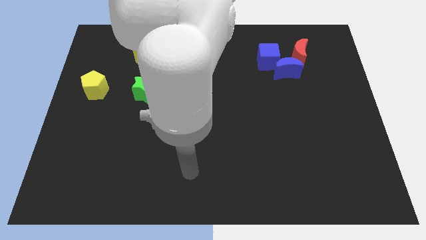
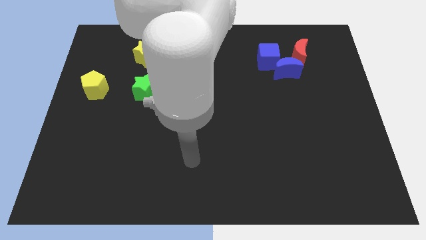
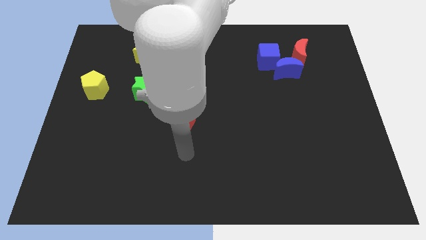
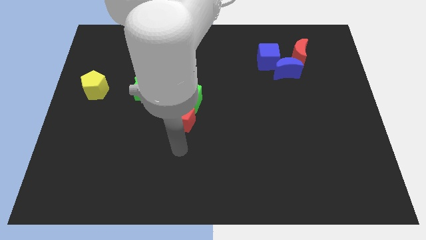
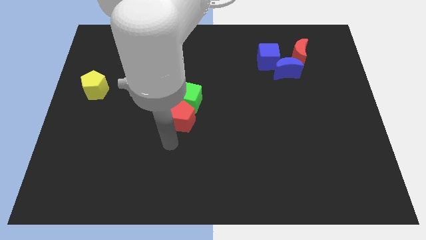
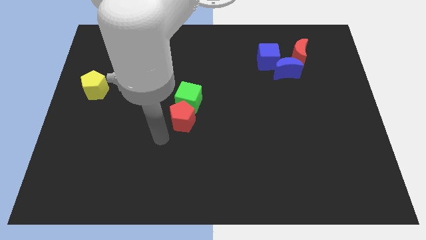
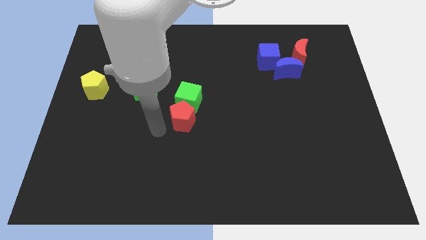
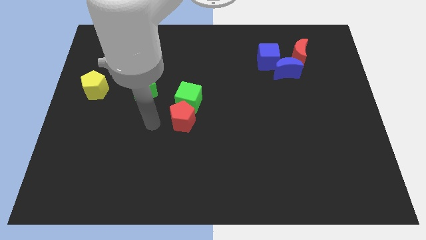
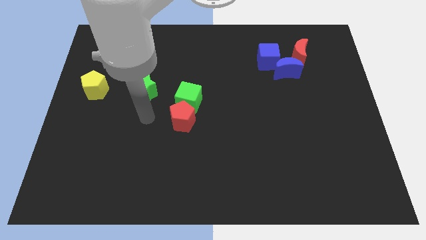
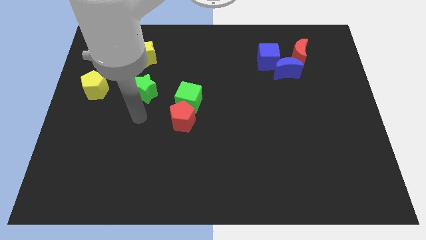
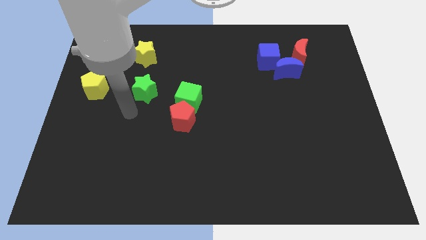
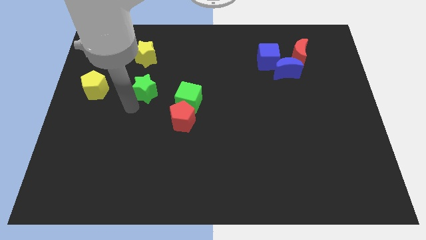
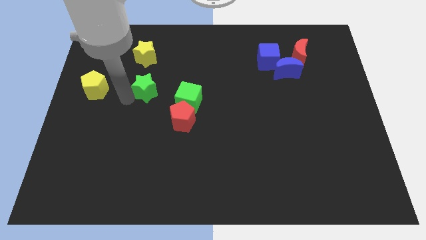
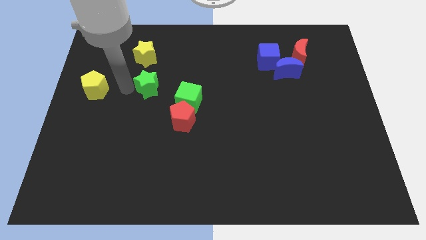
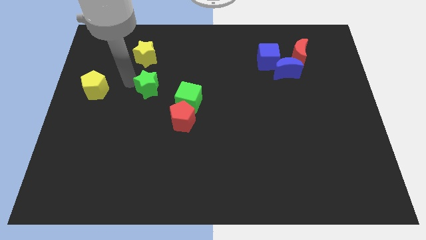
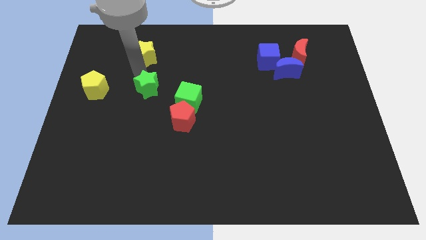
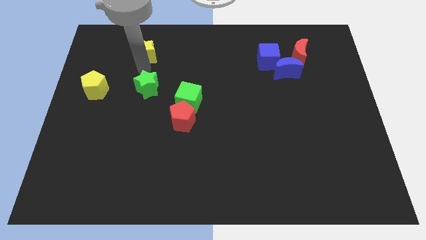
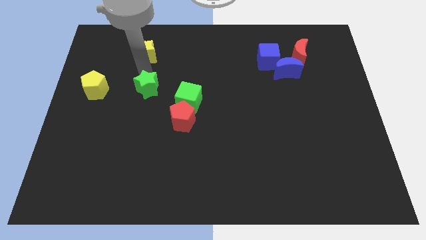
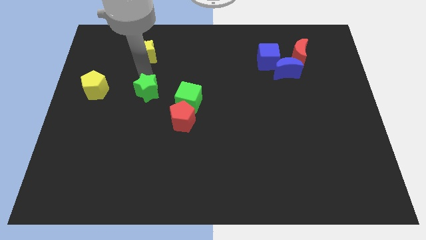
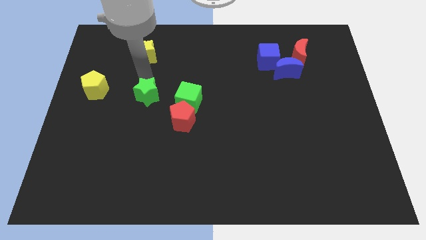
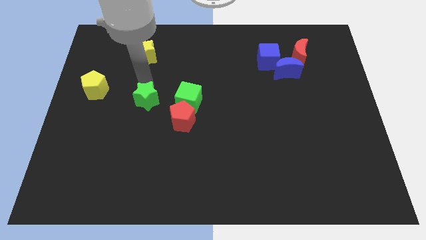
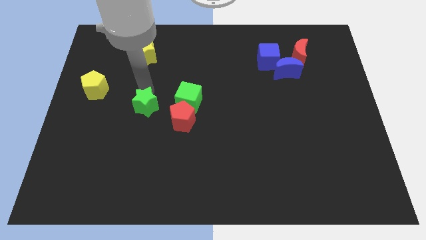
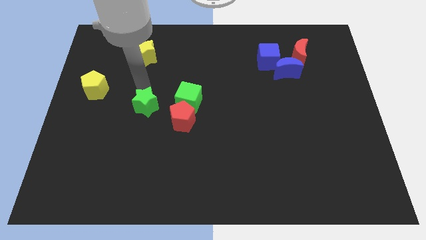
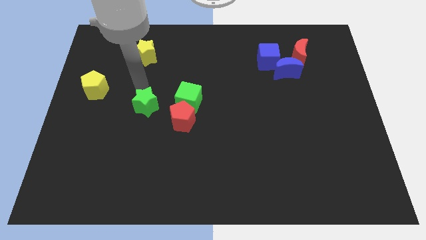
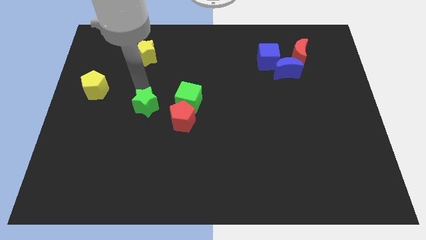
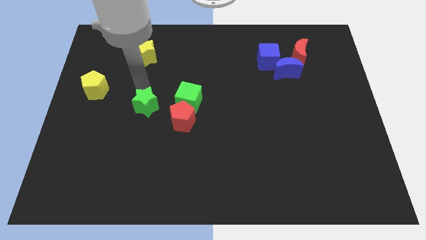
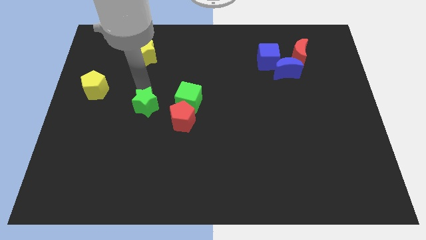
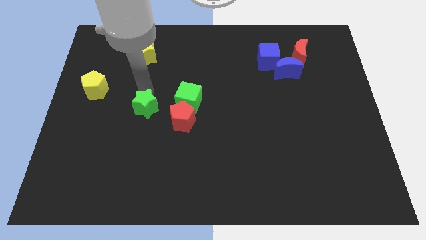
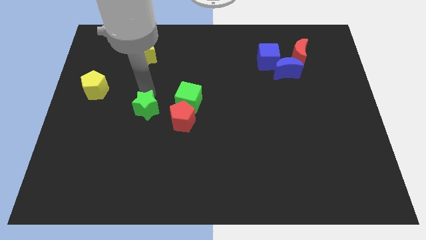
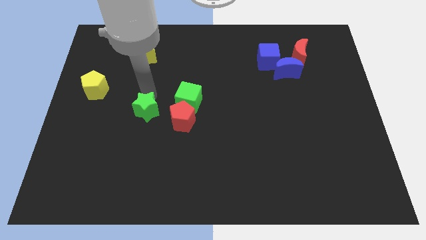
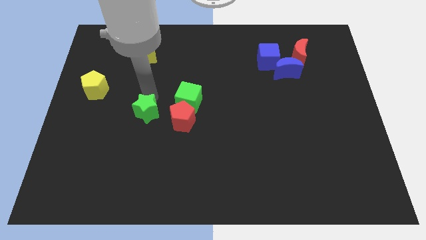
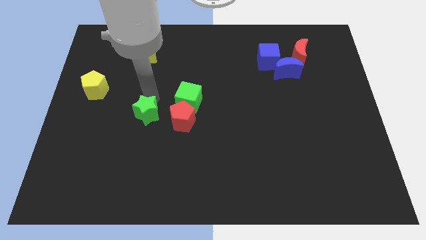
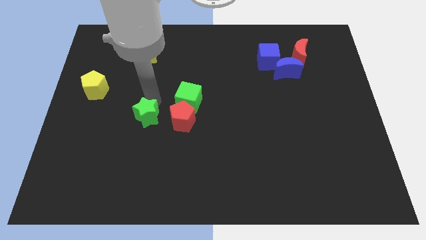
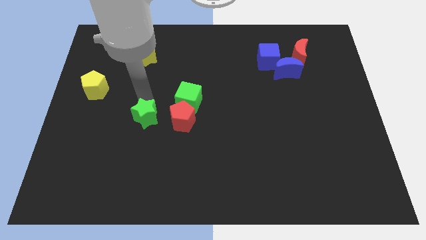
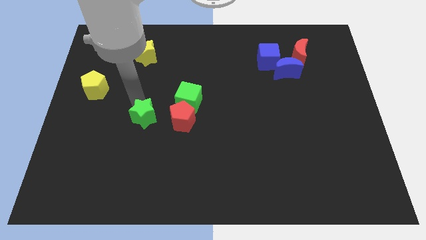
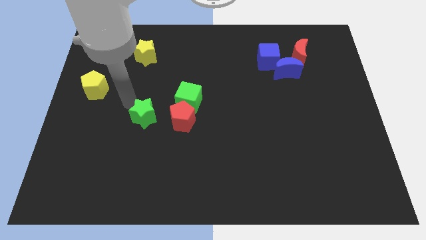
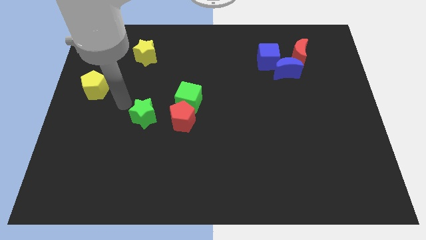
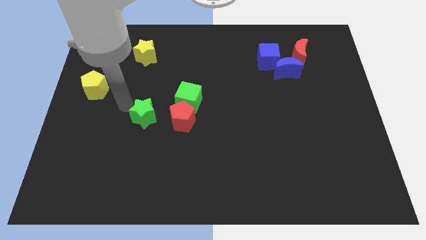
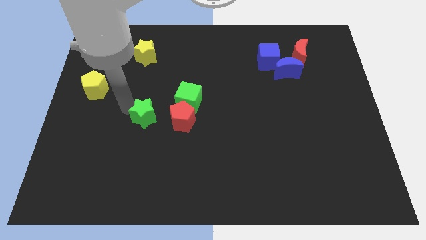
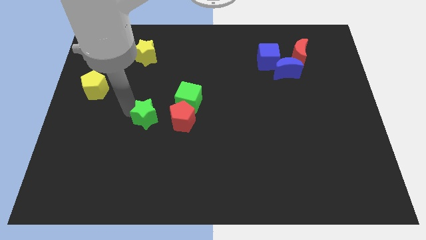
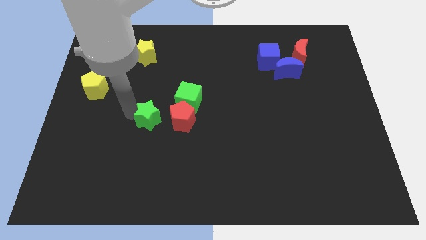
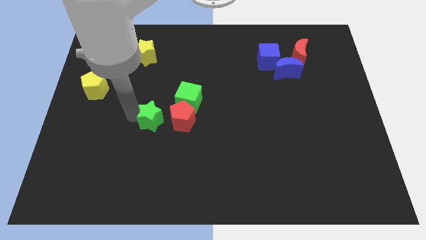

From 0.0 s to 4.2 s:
push the green star diagonally downwards and to the right a bit

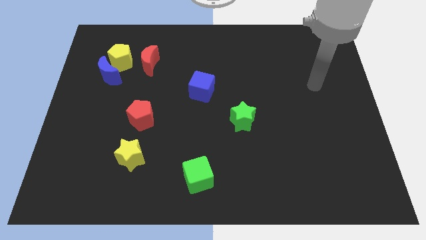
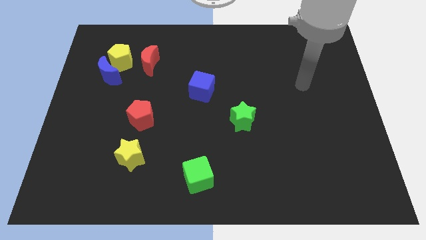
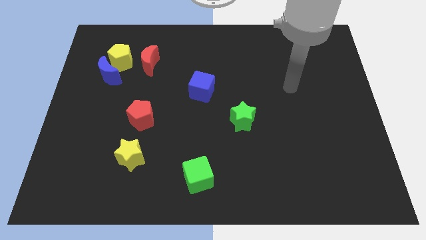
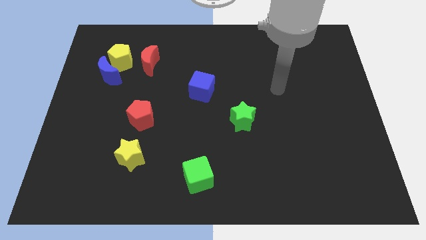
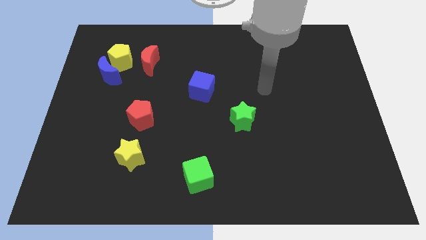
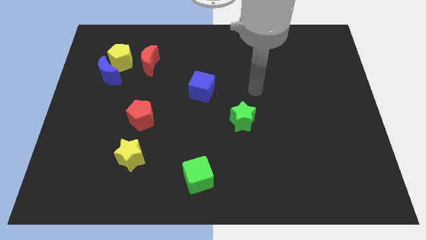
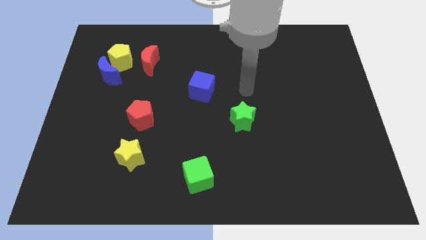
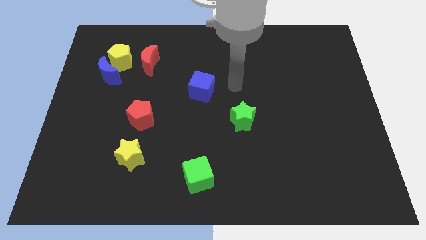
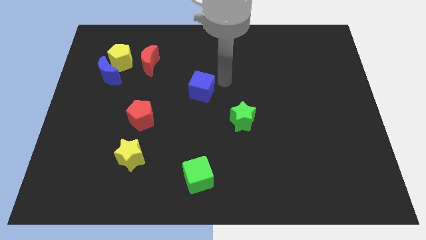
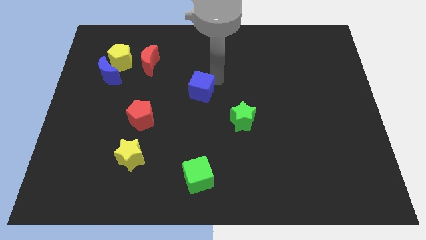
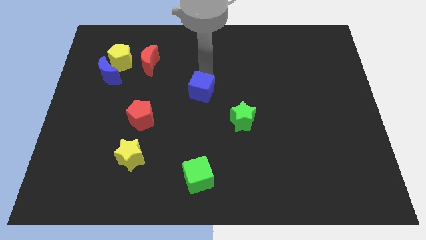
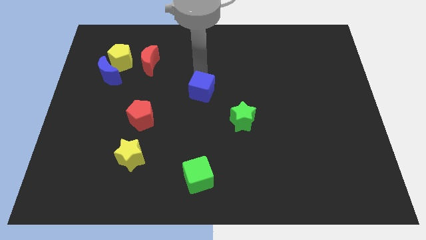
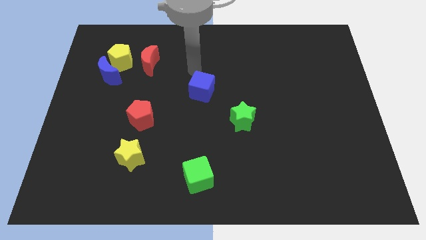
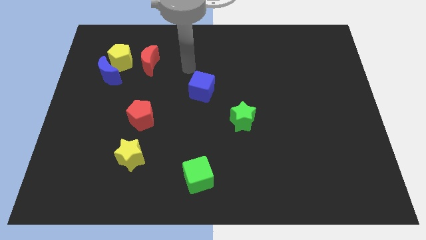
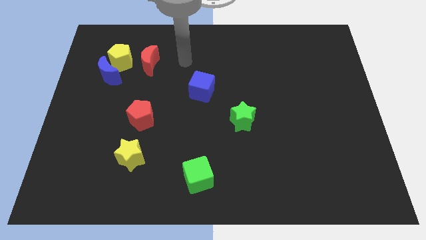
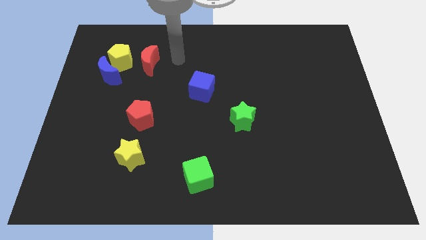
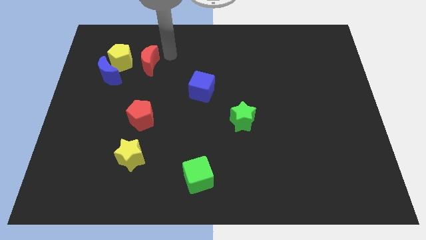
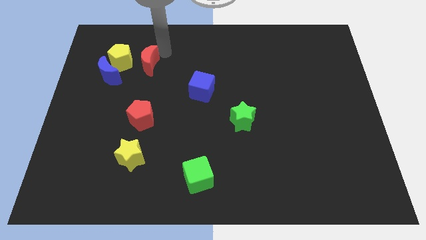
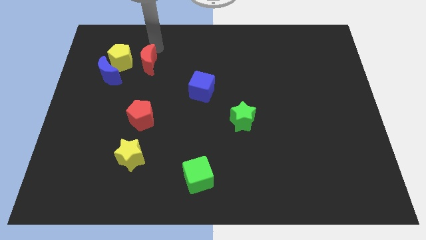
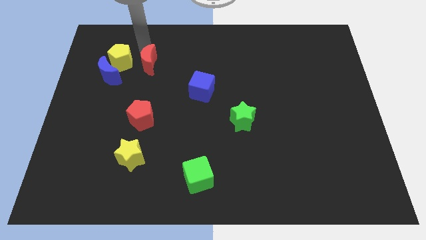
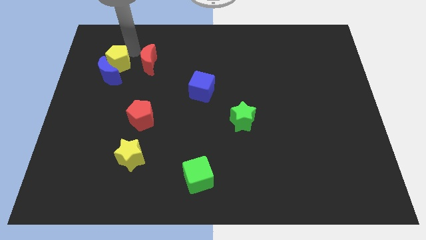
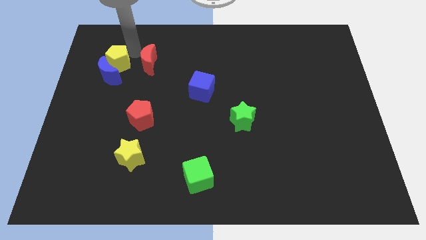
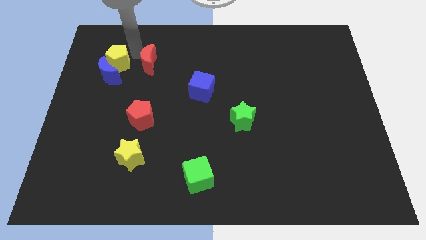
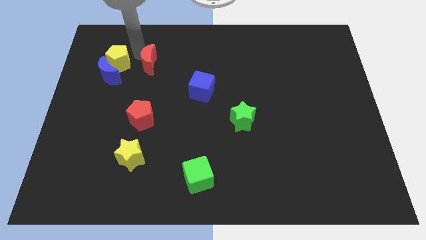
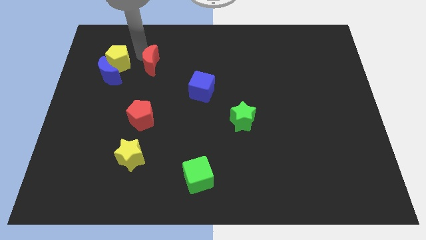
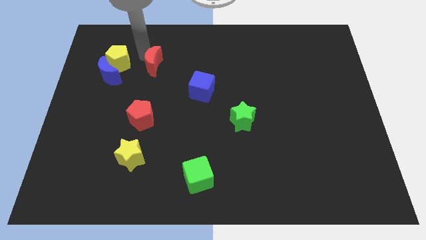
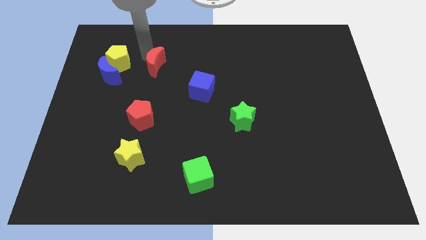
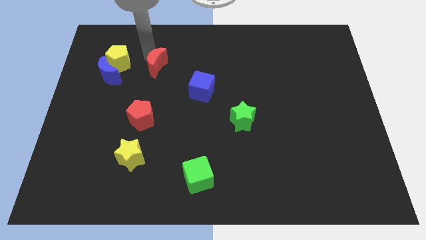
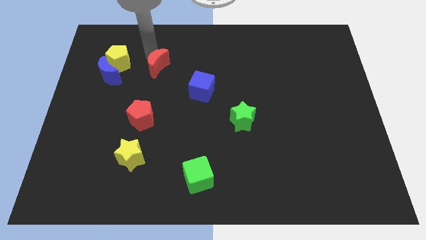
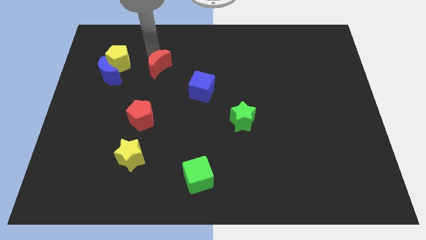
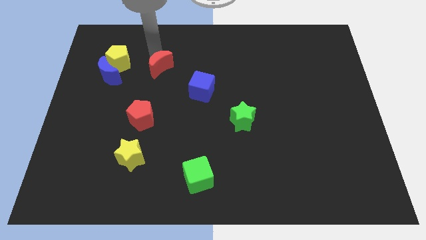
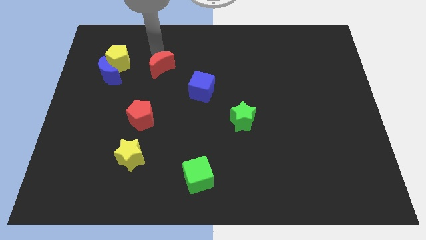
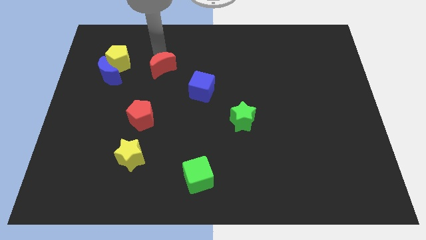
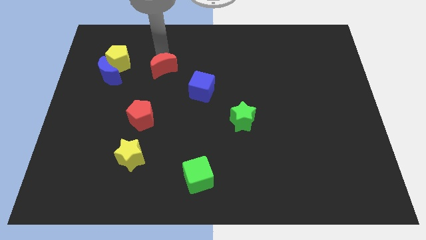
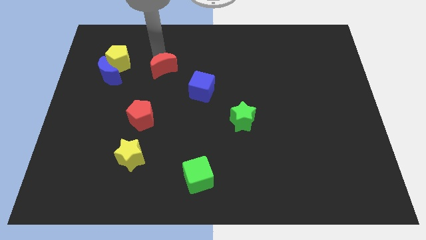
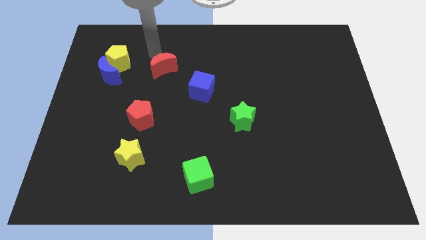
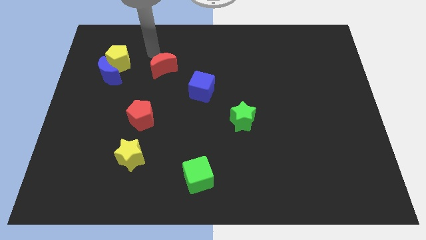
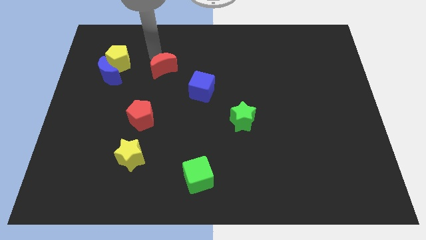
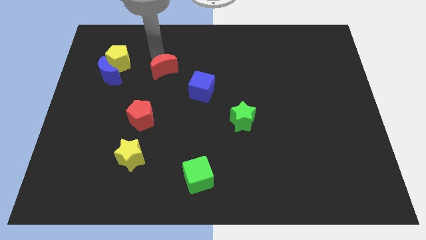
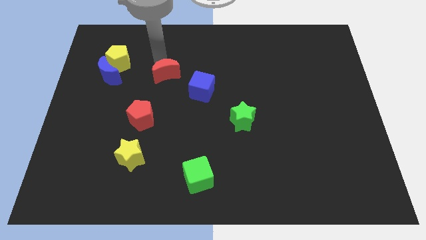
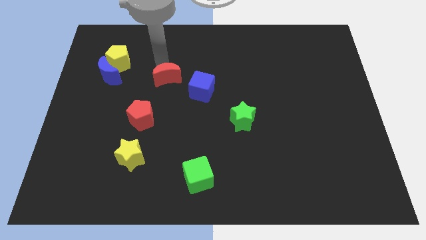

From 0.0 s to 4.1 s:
move the red moon a little diagonally down and right
